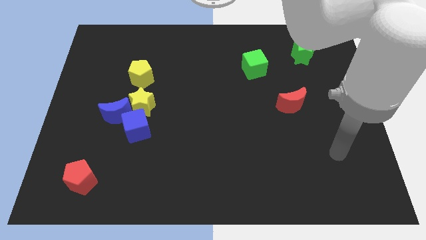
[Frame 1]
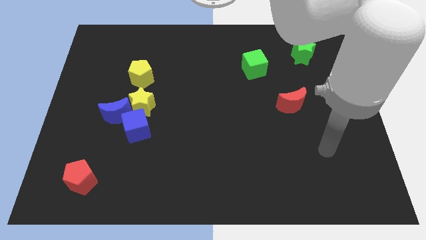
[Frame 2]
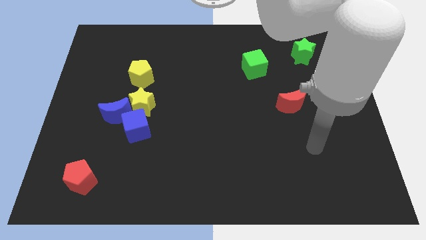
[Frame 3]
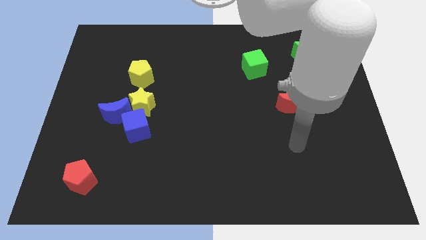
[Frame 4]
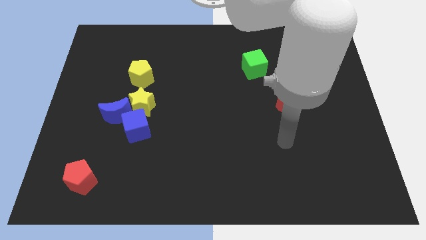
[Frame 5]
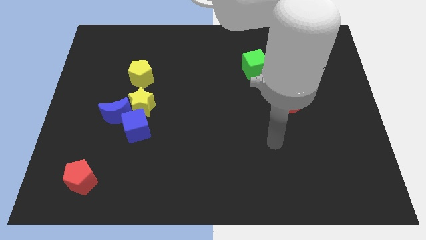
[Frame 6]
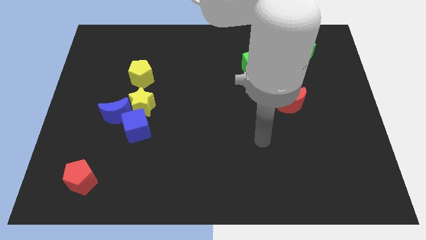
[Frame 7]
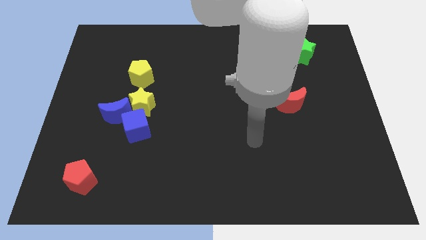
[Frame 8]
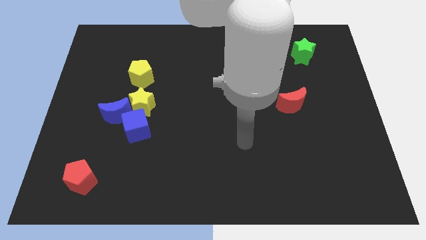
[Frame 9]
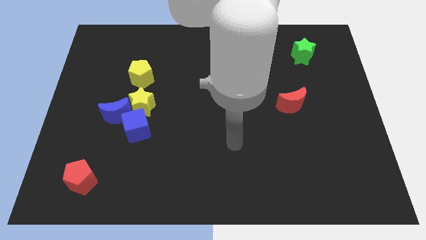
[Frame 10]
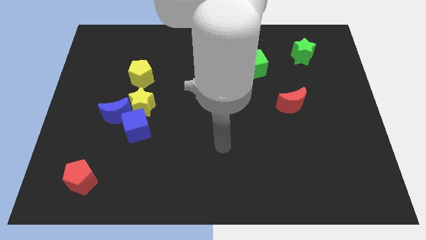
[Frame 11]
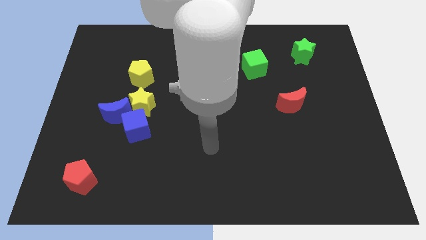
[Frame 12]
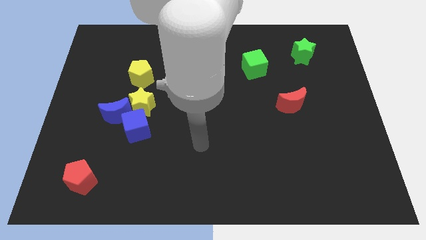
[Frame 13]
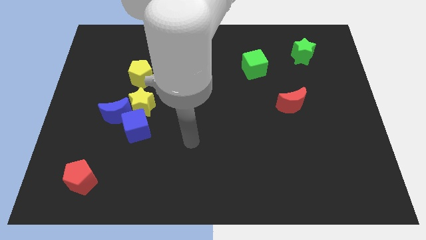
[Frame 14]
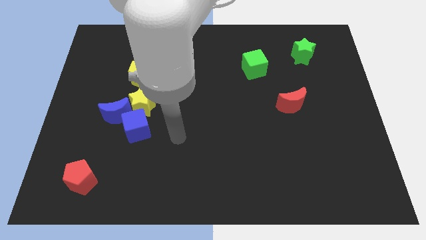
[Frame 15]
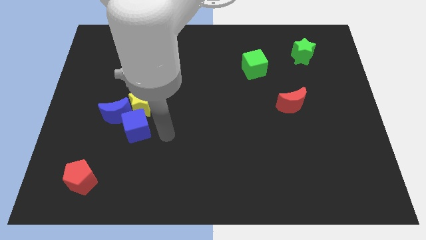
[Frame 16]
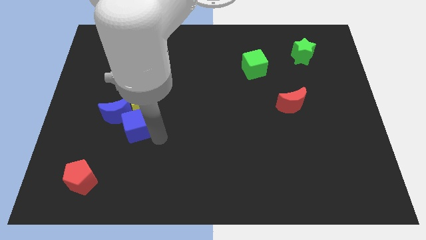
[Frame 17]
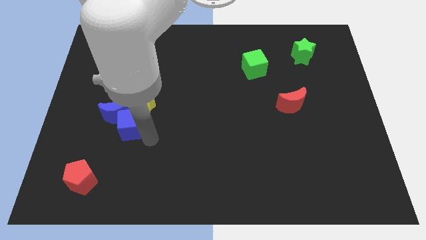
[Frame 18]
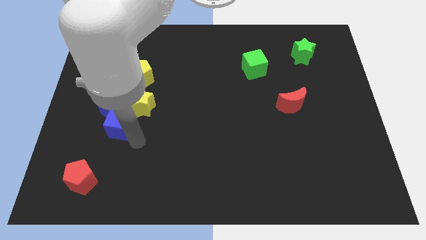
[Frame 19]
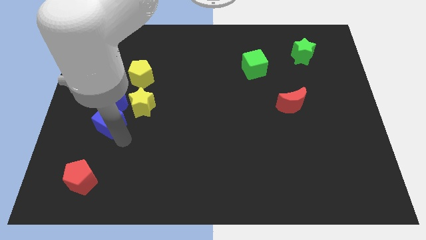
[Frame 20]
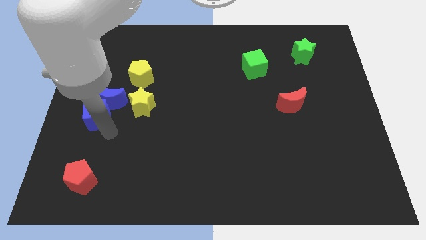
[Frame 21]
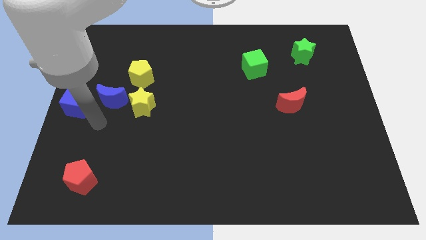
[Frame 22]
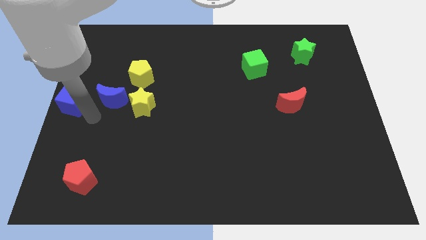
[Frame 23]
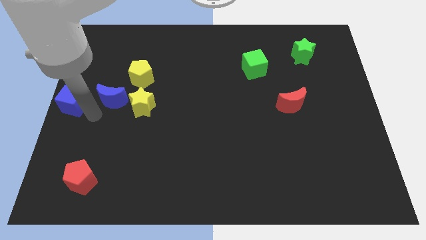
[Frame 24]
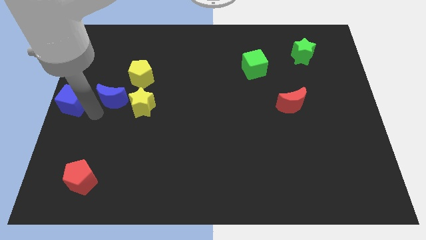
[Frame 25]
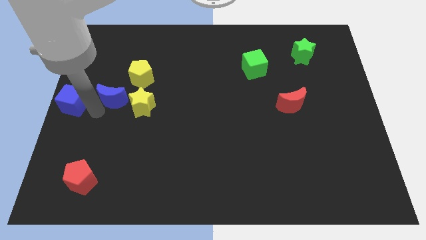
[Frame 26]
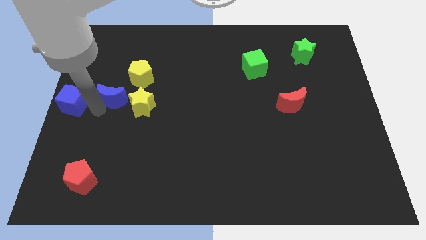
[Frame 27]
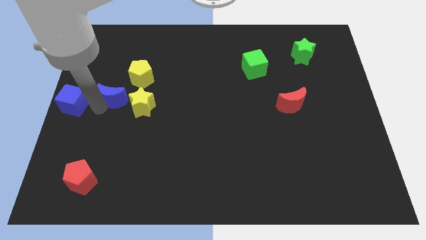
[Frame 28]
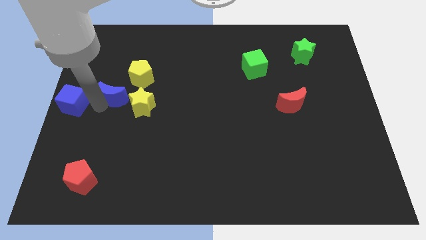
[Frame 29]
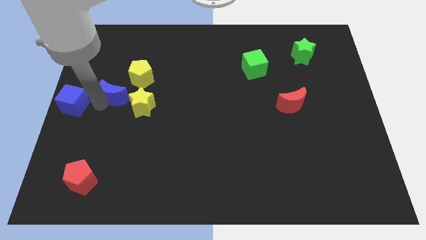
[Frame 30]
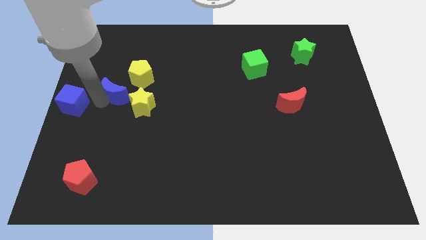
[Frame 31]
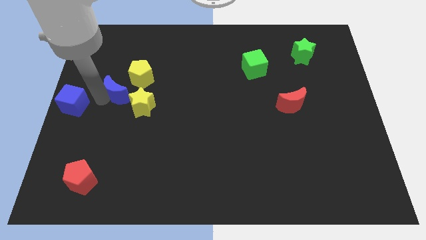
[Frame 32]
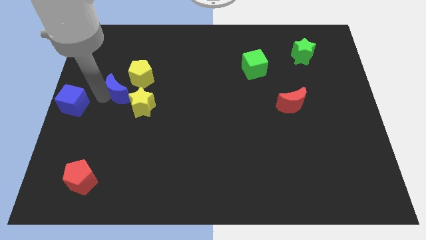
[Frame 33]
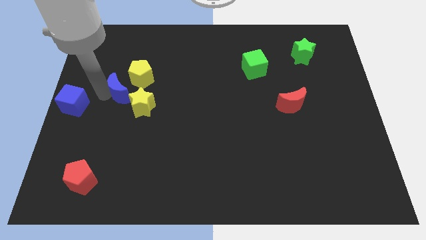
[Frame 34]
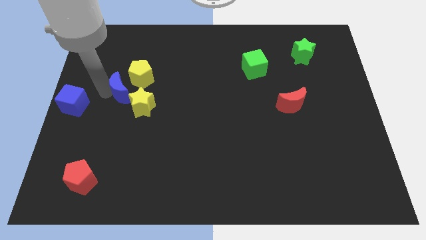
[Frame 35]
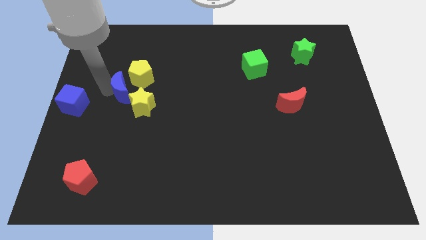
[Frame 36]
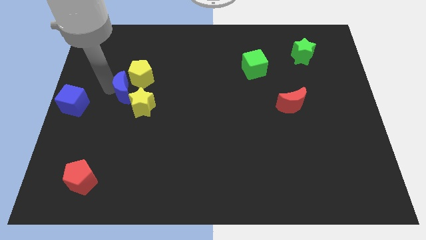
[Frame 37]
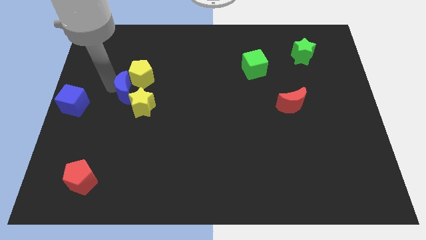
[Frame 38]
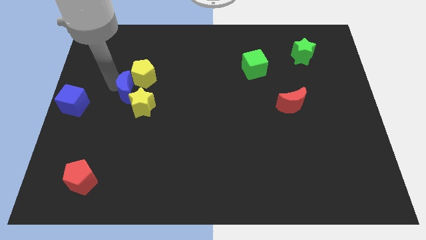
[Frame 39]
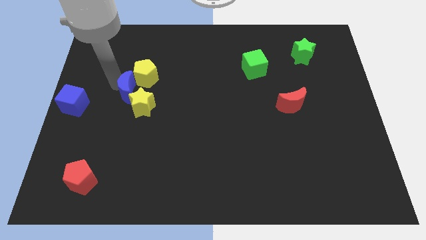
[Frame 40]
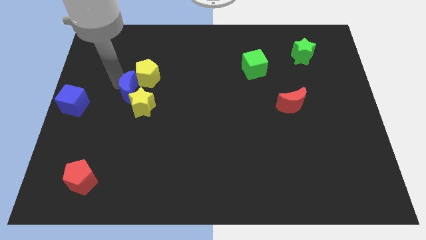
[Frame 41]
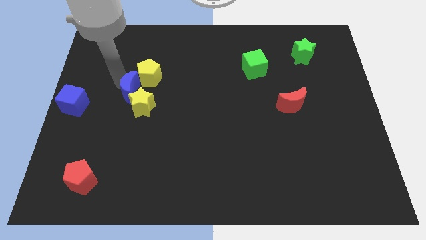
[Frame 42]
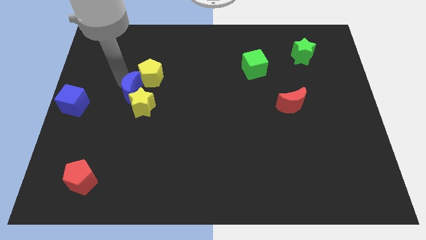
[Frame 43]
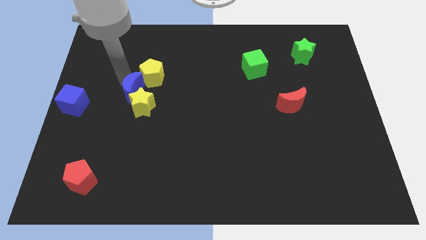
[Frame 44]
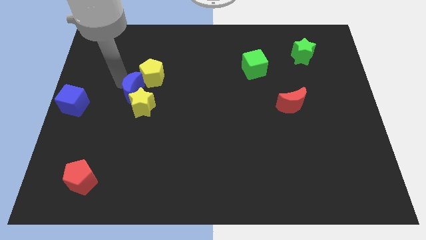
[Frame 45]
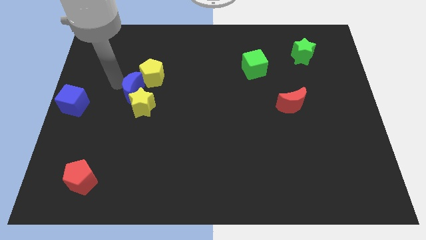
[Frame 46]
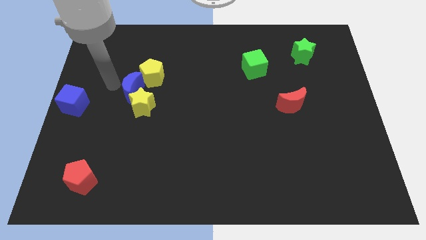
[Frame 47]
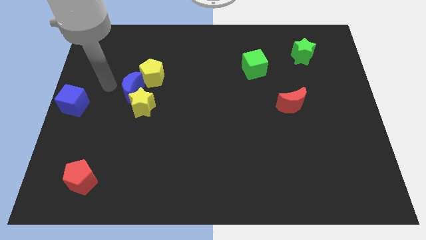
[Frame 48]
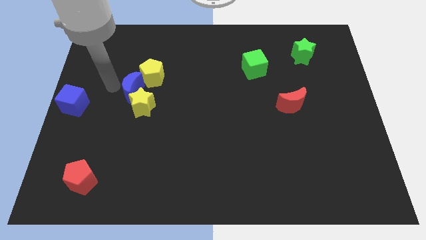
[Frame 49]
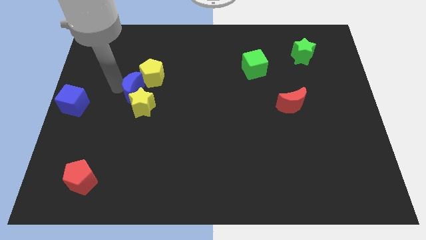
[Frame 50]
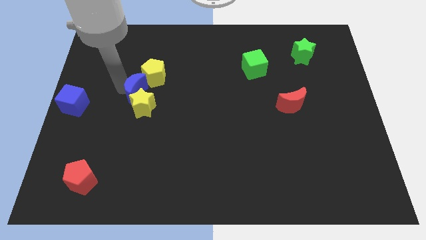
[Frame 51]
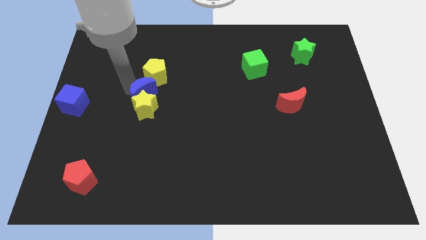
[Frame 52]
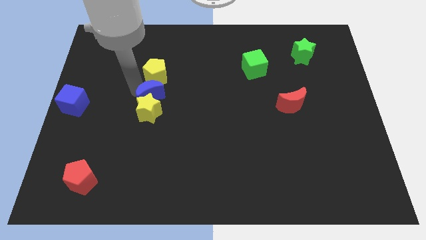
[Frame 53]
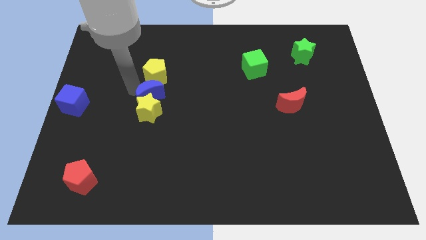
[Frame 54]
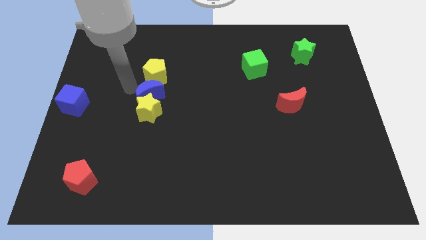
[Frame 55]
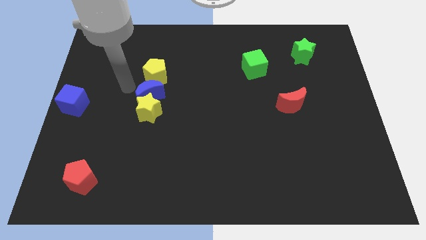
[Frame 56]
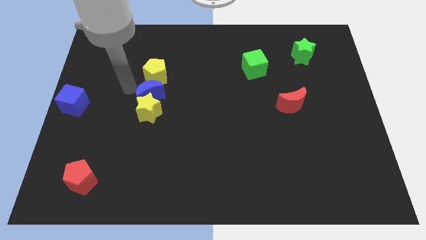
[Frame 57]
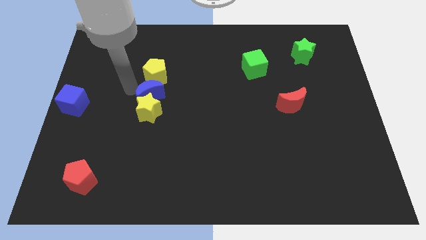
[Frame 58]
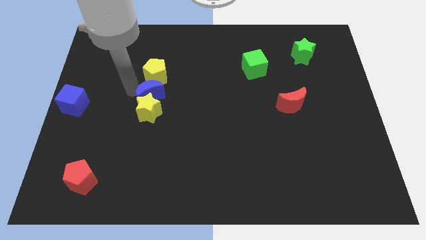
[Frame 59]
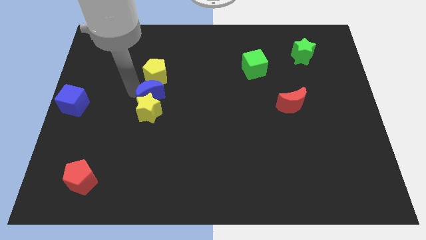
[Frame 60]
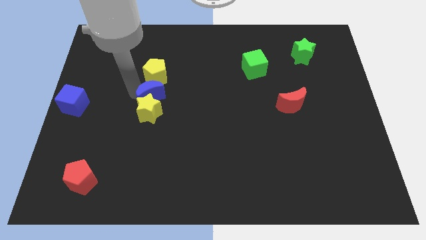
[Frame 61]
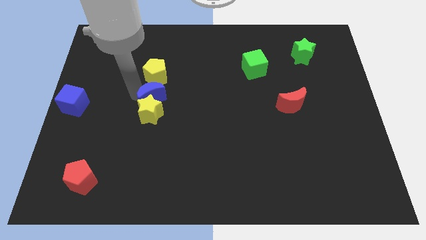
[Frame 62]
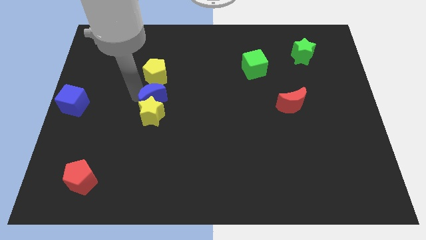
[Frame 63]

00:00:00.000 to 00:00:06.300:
slightly push the blue moon to the right

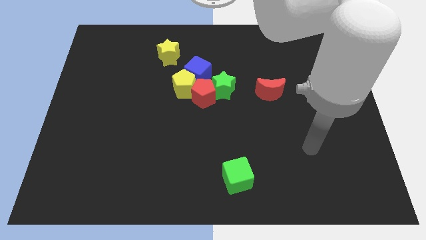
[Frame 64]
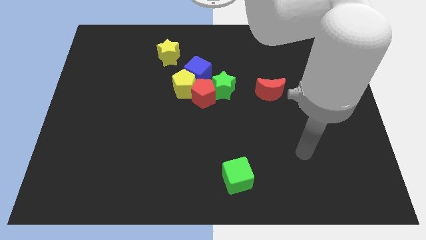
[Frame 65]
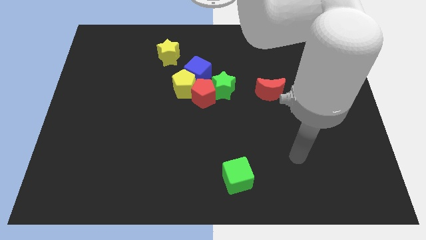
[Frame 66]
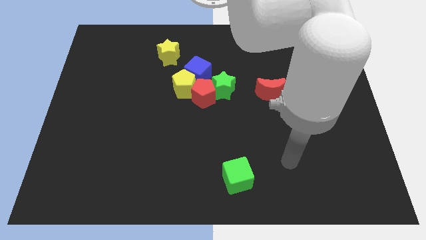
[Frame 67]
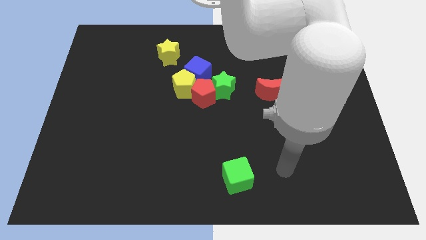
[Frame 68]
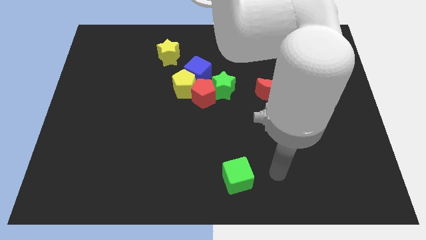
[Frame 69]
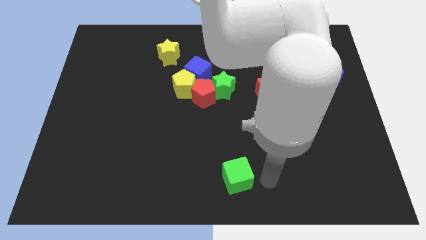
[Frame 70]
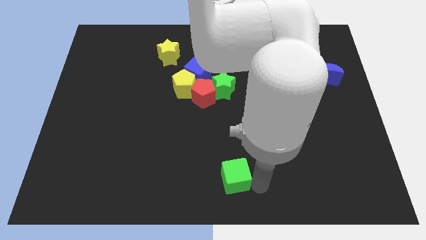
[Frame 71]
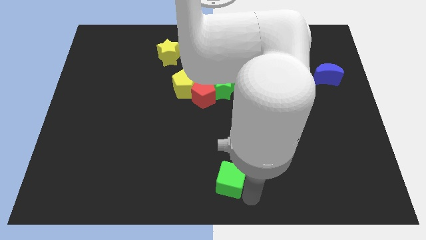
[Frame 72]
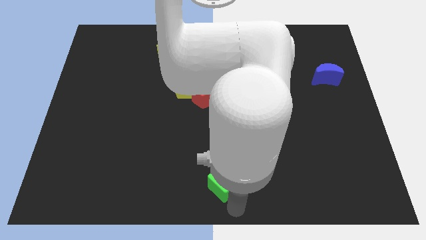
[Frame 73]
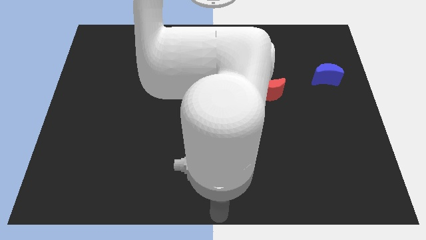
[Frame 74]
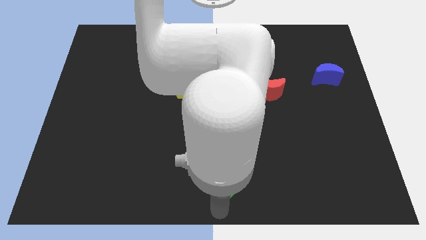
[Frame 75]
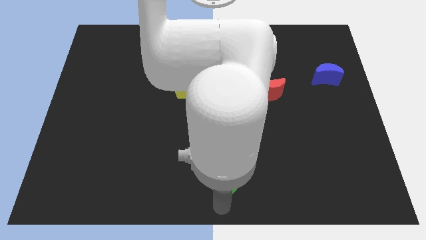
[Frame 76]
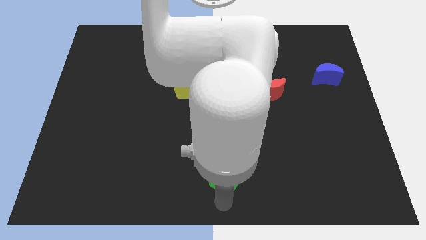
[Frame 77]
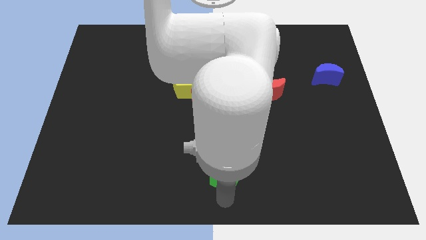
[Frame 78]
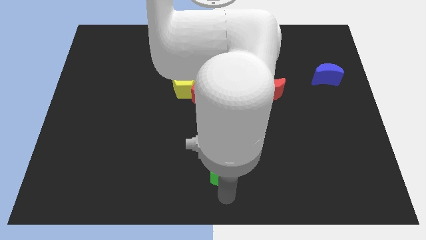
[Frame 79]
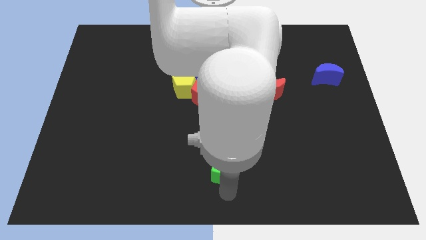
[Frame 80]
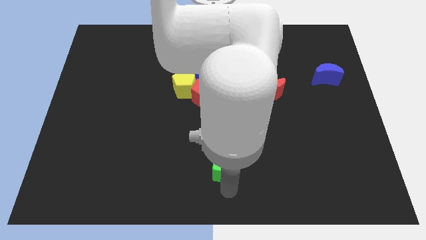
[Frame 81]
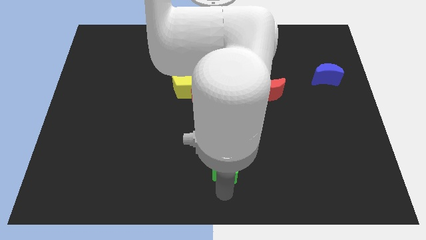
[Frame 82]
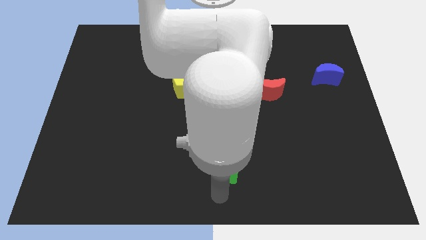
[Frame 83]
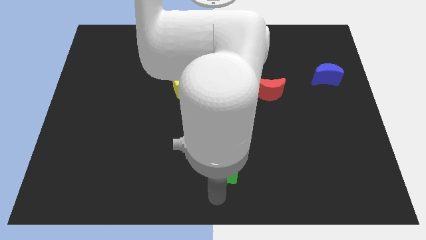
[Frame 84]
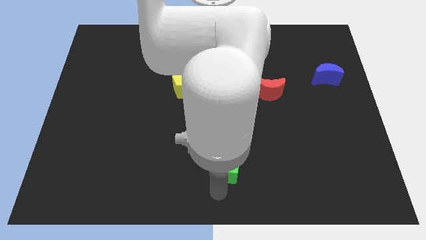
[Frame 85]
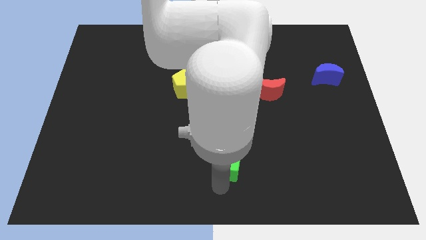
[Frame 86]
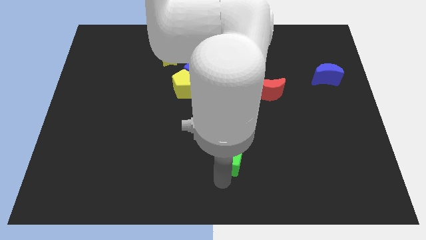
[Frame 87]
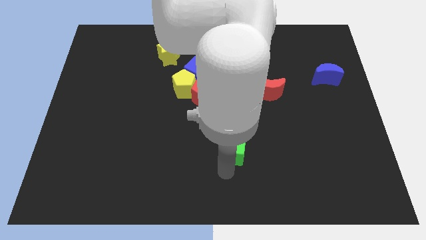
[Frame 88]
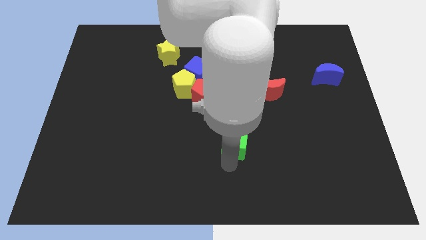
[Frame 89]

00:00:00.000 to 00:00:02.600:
move the green cube a little bit up
